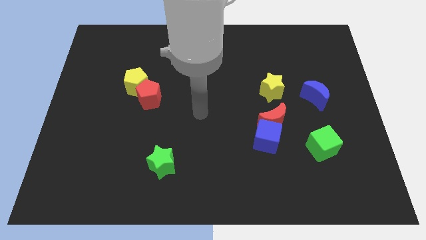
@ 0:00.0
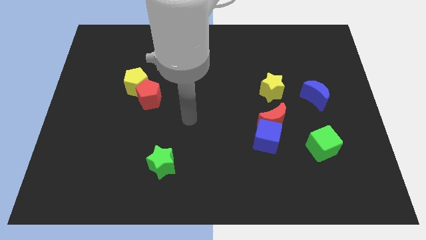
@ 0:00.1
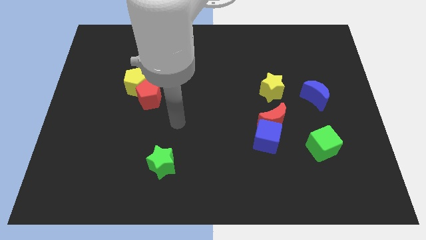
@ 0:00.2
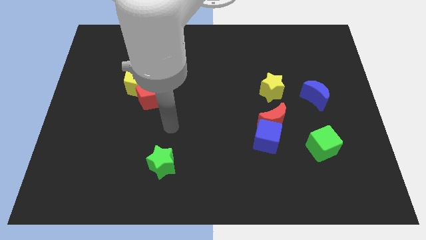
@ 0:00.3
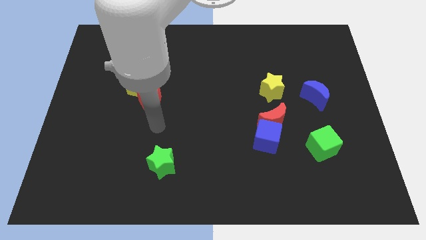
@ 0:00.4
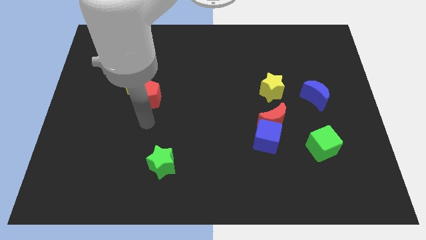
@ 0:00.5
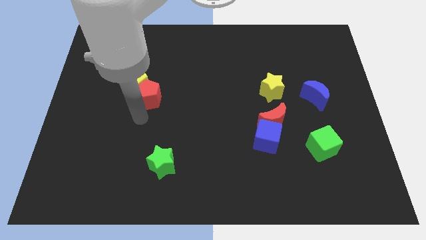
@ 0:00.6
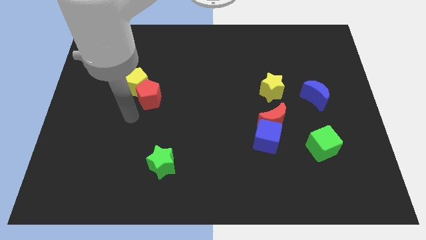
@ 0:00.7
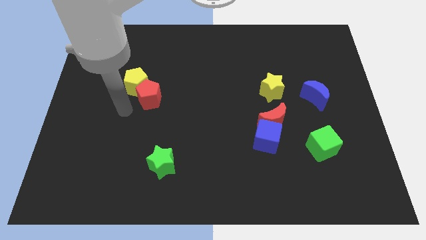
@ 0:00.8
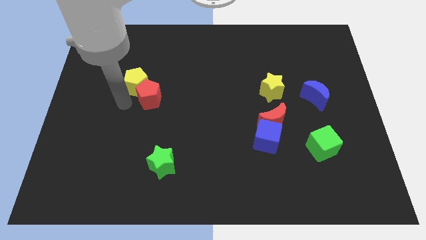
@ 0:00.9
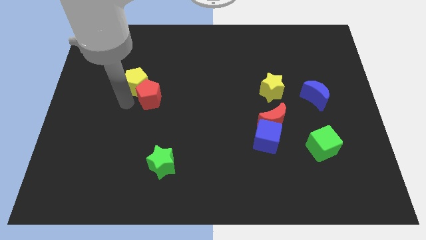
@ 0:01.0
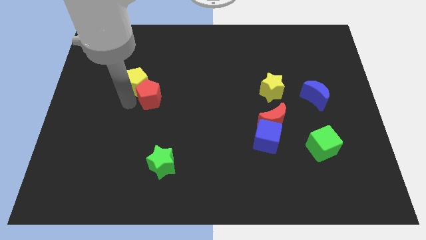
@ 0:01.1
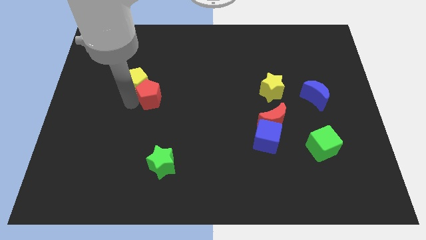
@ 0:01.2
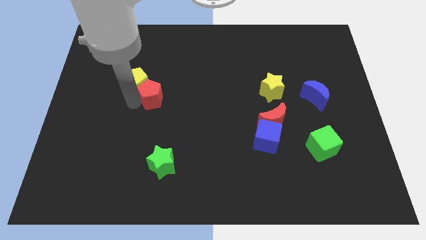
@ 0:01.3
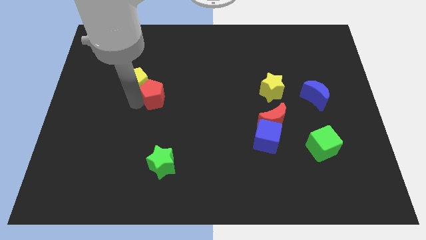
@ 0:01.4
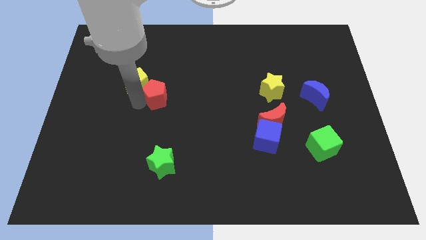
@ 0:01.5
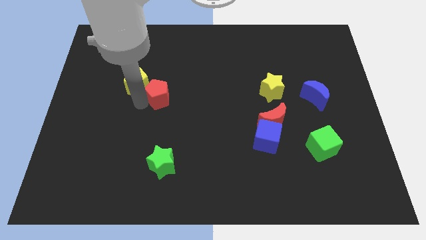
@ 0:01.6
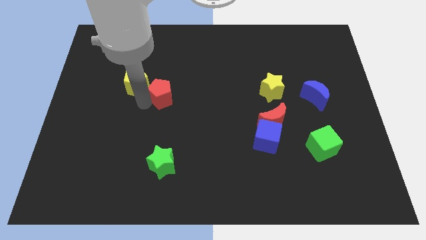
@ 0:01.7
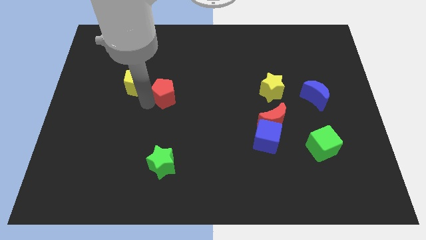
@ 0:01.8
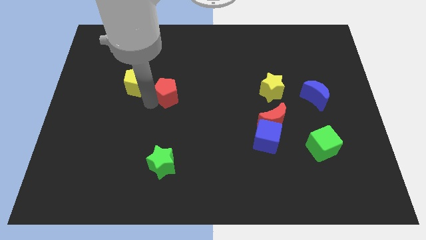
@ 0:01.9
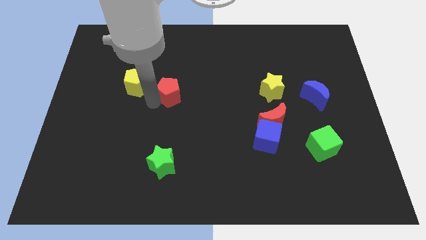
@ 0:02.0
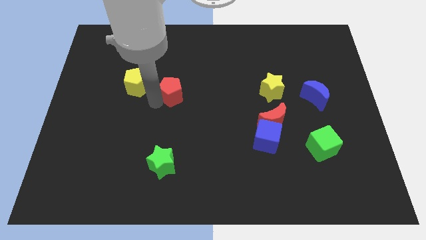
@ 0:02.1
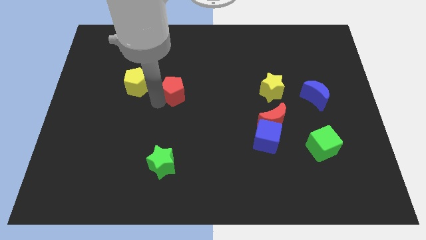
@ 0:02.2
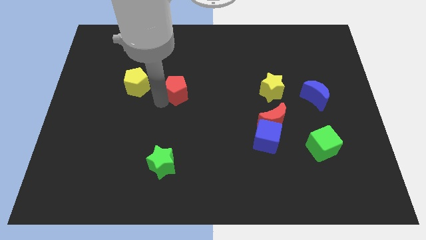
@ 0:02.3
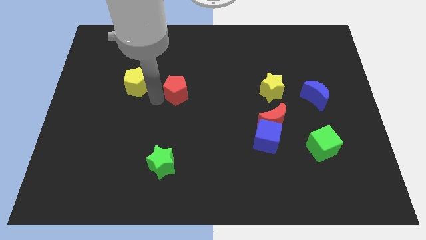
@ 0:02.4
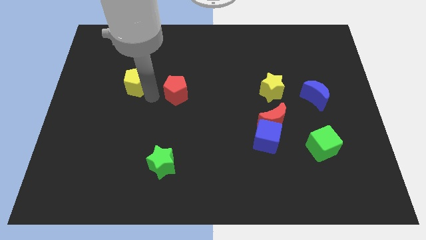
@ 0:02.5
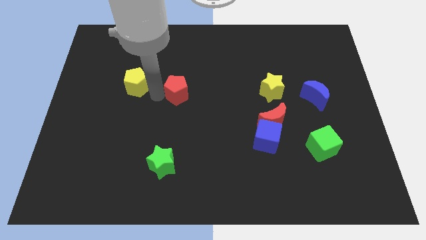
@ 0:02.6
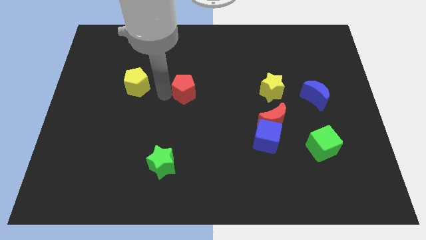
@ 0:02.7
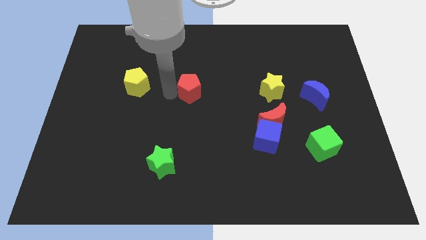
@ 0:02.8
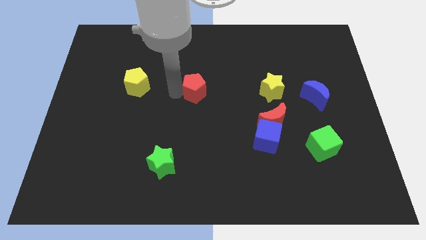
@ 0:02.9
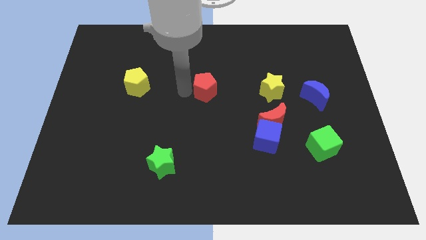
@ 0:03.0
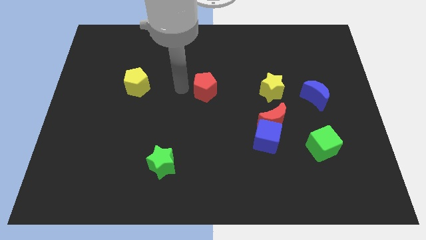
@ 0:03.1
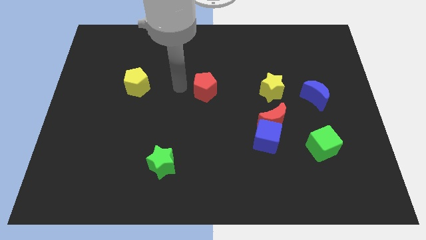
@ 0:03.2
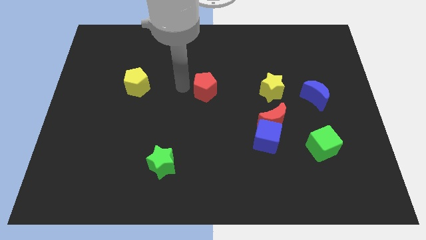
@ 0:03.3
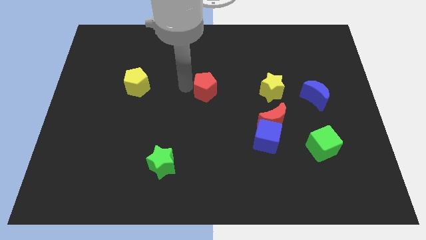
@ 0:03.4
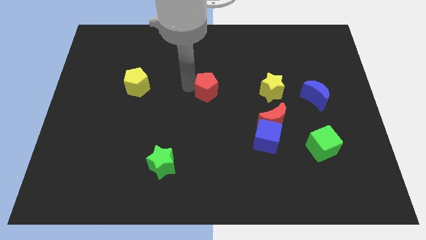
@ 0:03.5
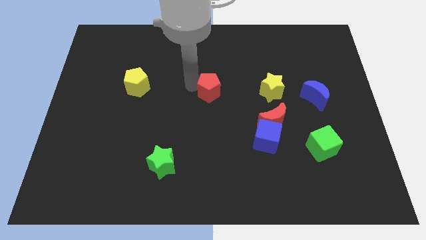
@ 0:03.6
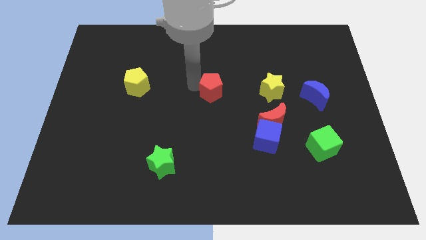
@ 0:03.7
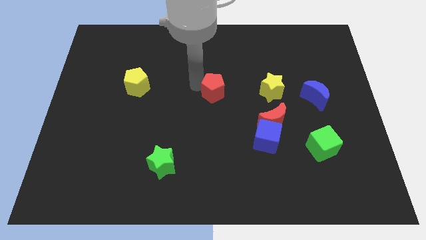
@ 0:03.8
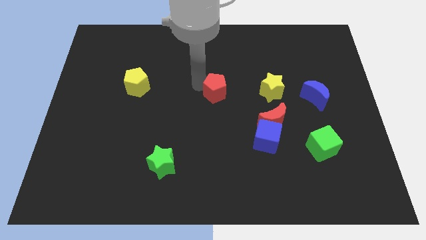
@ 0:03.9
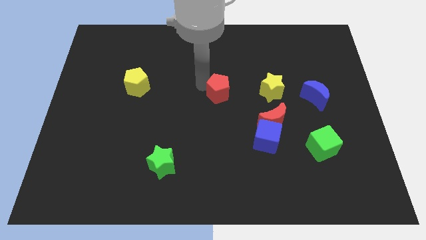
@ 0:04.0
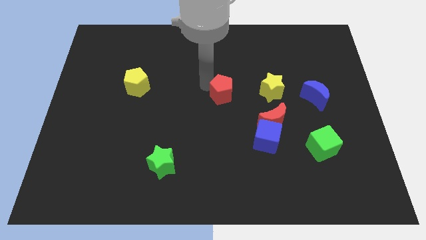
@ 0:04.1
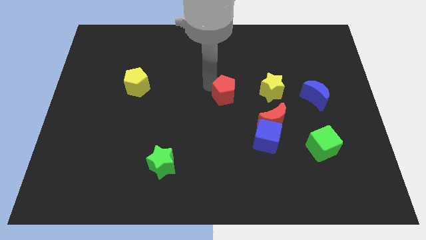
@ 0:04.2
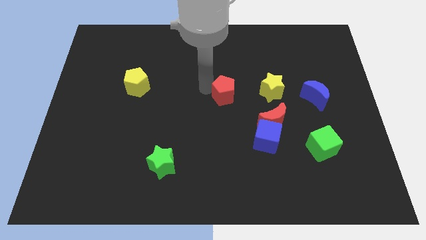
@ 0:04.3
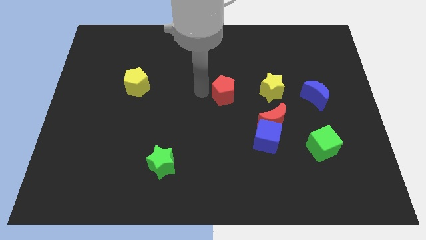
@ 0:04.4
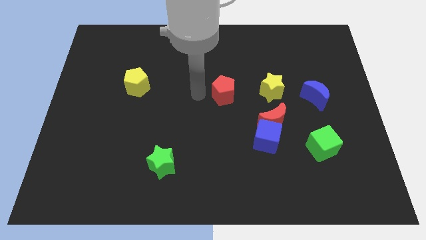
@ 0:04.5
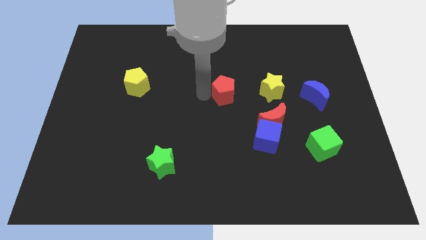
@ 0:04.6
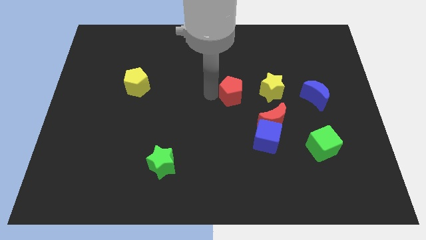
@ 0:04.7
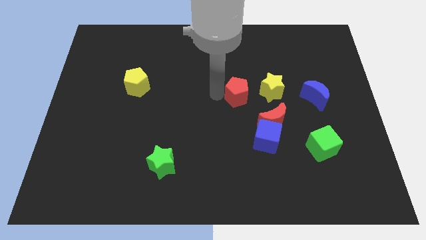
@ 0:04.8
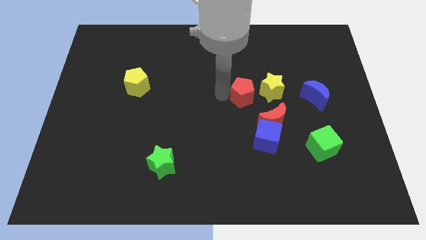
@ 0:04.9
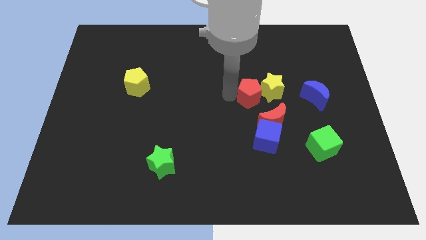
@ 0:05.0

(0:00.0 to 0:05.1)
move the red pentagon next to the yellow star

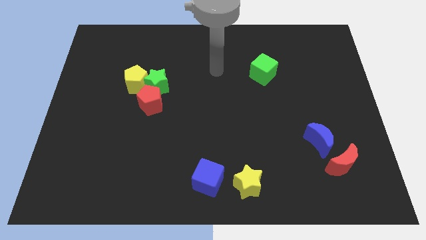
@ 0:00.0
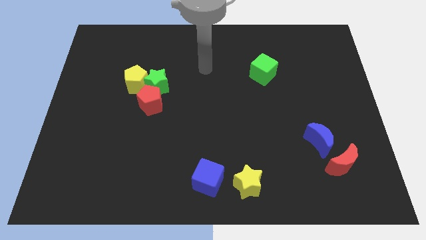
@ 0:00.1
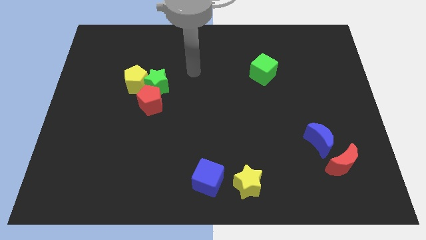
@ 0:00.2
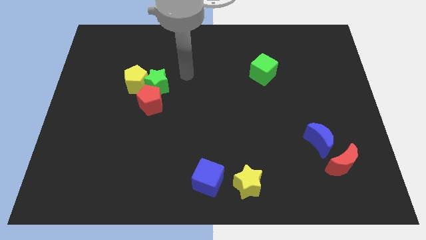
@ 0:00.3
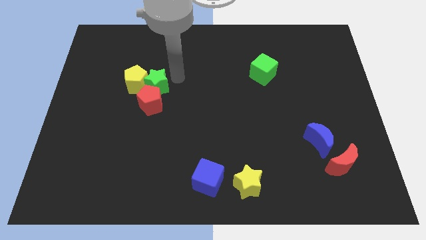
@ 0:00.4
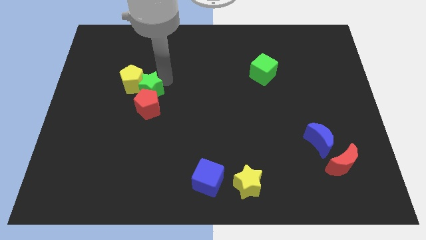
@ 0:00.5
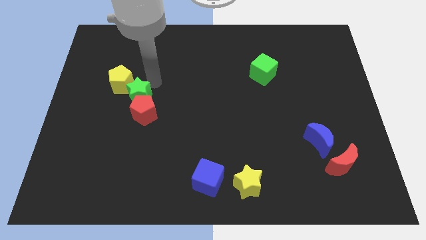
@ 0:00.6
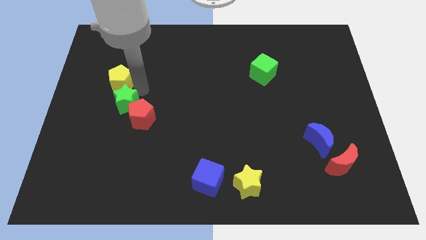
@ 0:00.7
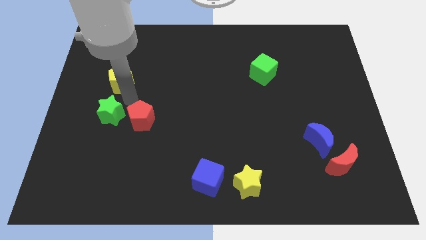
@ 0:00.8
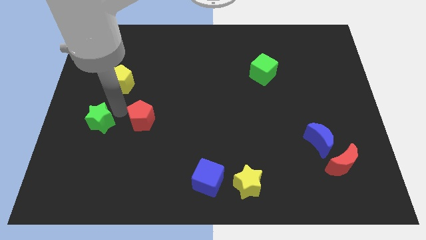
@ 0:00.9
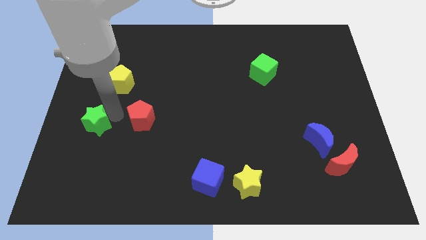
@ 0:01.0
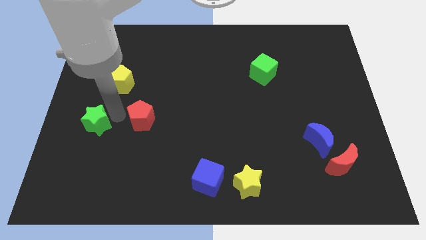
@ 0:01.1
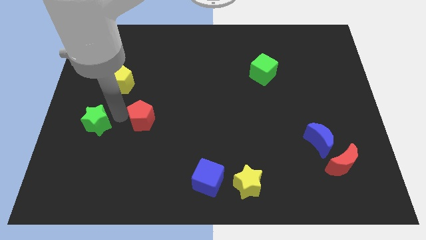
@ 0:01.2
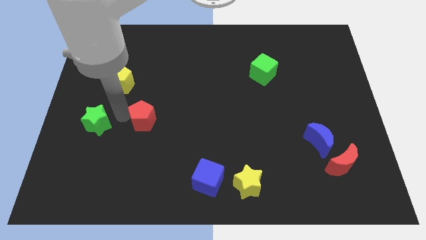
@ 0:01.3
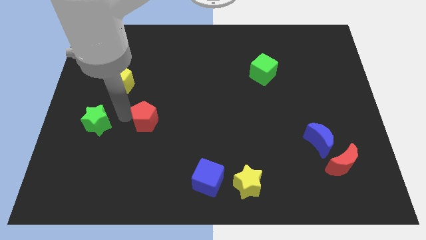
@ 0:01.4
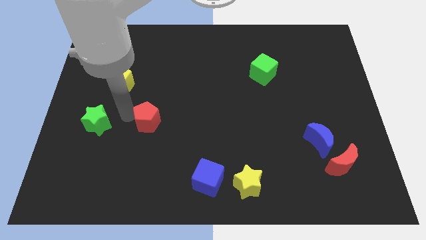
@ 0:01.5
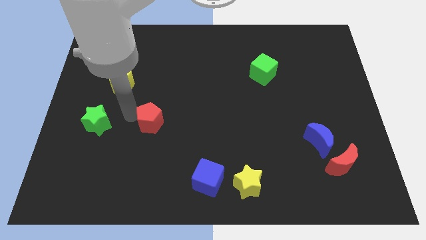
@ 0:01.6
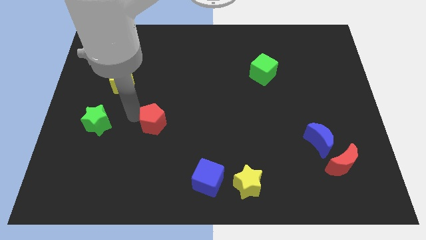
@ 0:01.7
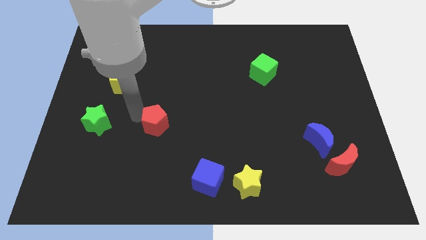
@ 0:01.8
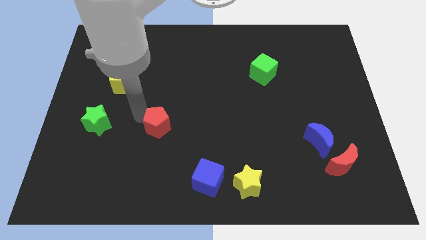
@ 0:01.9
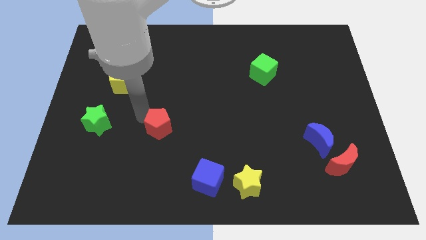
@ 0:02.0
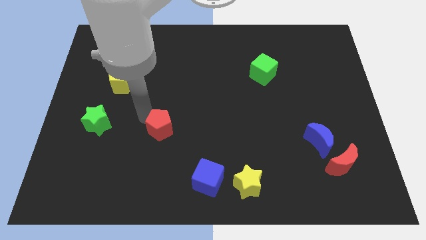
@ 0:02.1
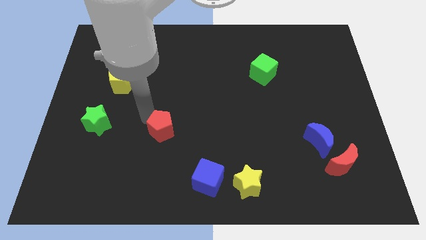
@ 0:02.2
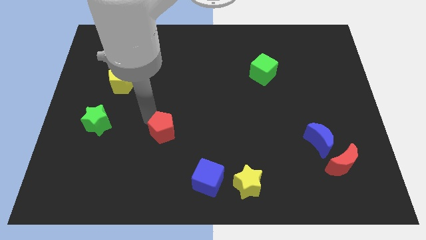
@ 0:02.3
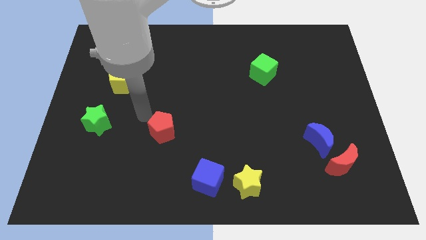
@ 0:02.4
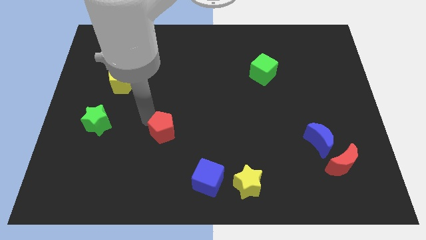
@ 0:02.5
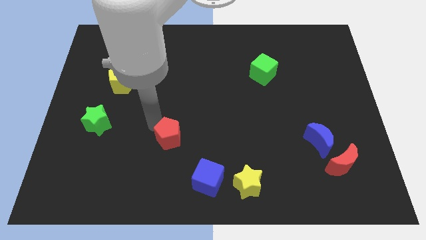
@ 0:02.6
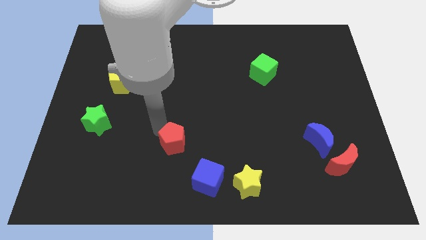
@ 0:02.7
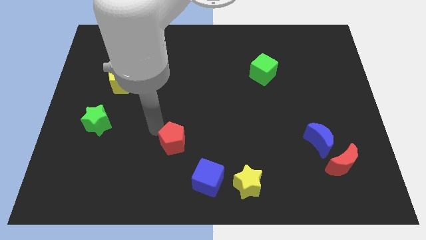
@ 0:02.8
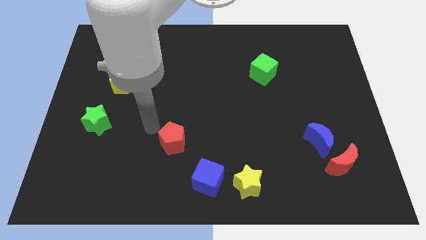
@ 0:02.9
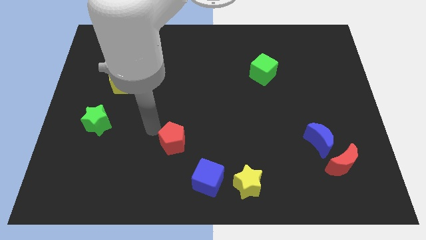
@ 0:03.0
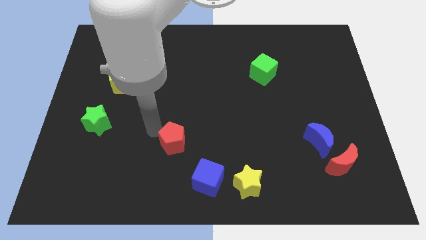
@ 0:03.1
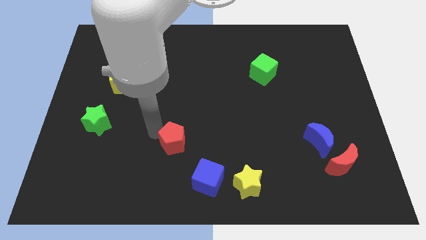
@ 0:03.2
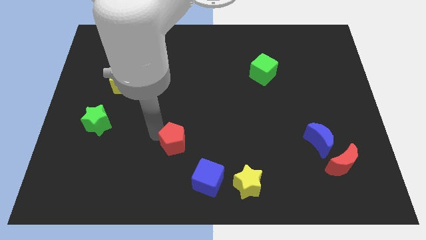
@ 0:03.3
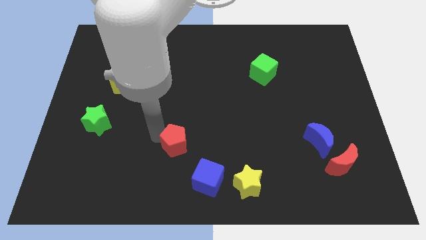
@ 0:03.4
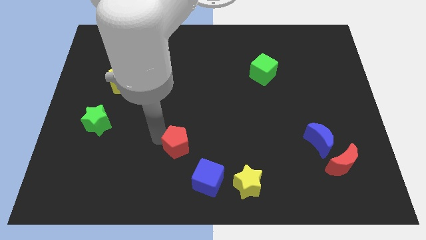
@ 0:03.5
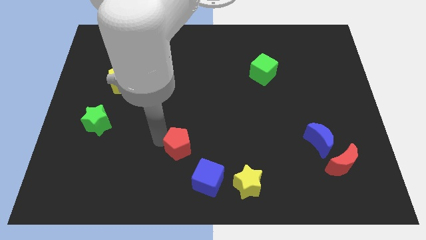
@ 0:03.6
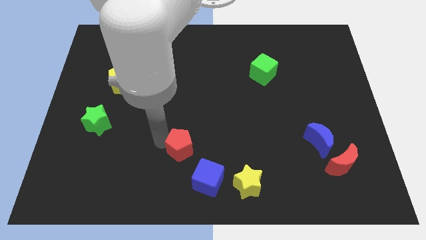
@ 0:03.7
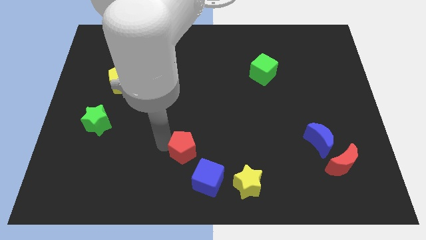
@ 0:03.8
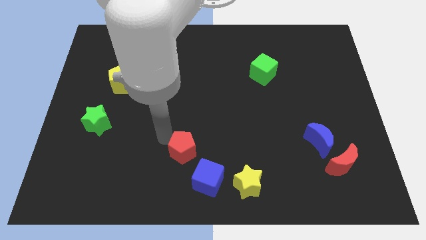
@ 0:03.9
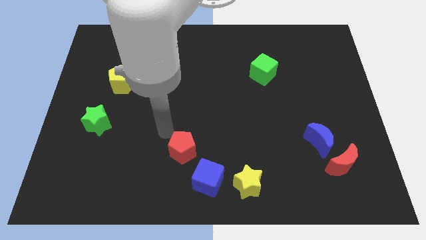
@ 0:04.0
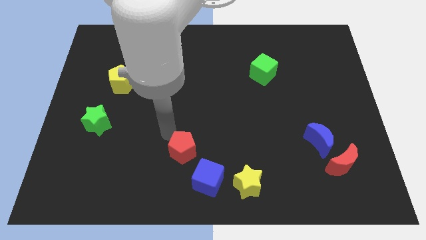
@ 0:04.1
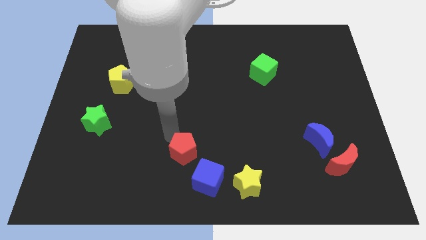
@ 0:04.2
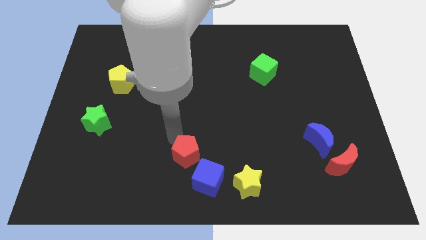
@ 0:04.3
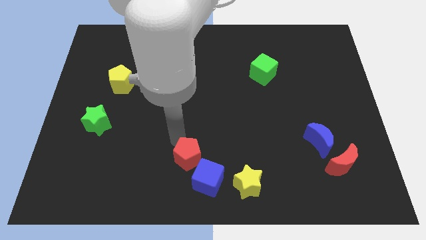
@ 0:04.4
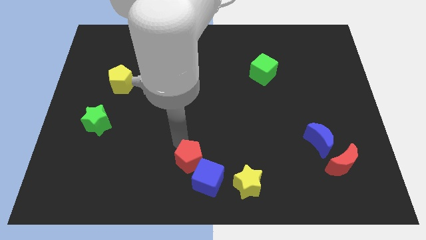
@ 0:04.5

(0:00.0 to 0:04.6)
push the red pentagon to the blue cube
